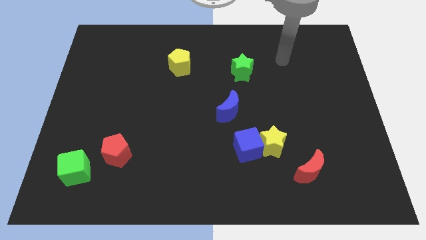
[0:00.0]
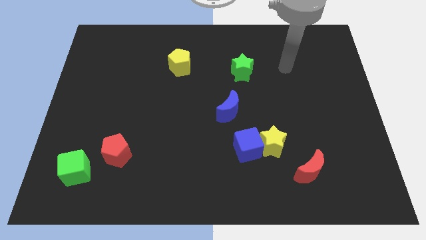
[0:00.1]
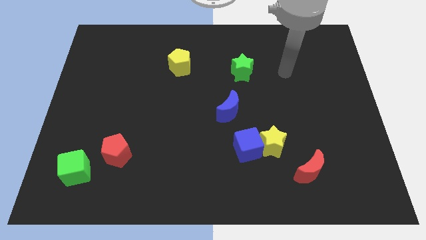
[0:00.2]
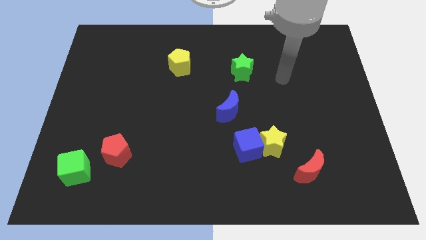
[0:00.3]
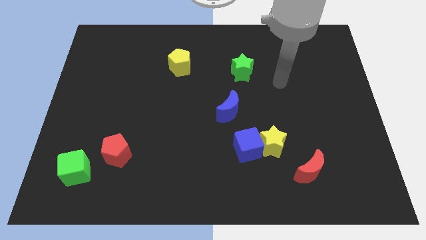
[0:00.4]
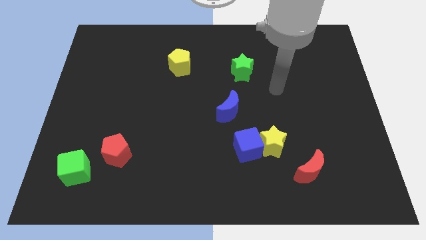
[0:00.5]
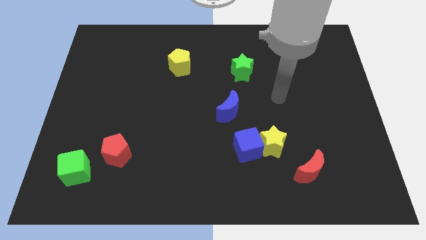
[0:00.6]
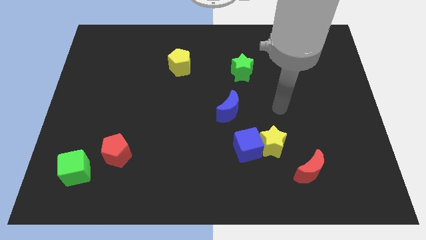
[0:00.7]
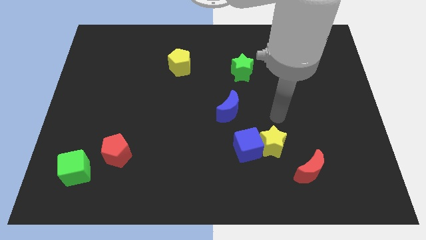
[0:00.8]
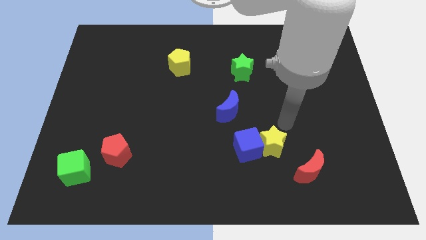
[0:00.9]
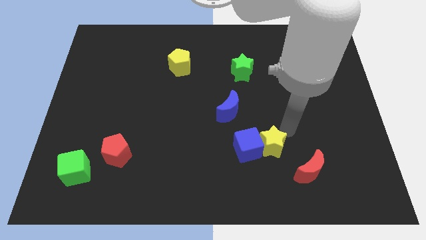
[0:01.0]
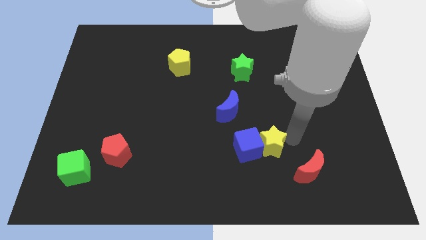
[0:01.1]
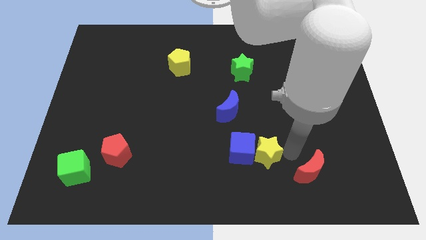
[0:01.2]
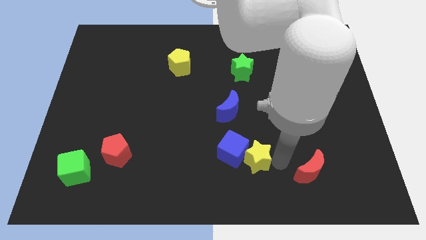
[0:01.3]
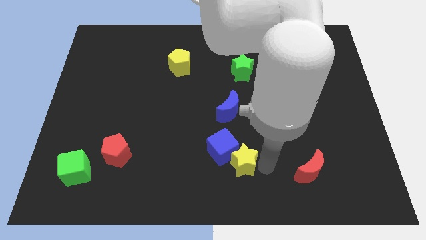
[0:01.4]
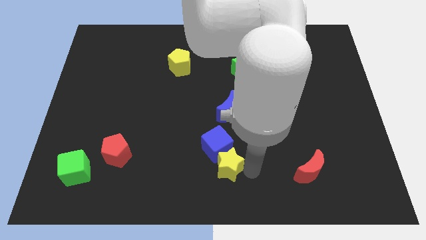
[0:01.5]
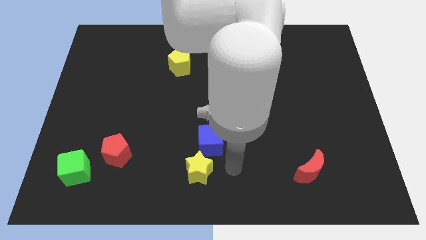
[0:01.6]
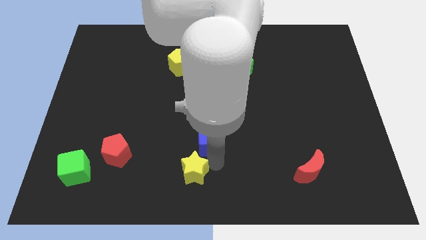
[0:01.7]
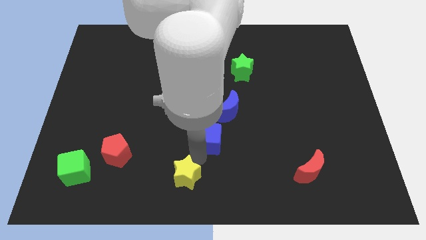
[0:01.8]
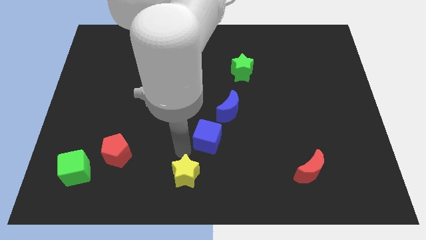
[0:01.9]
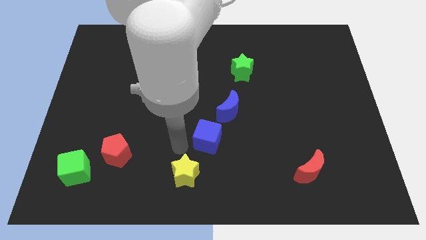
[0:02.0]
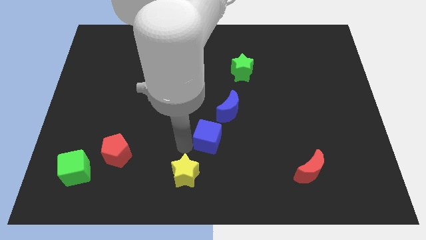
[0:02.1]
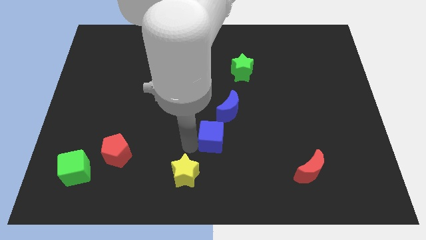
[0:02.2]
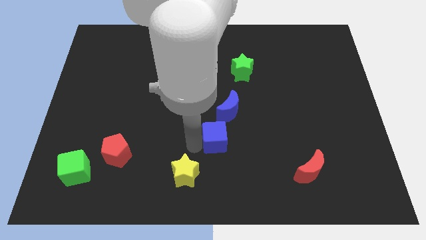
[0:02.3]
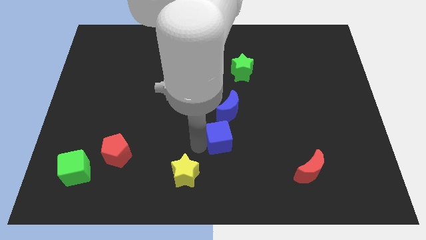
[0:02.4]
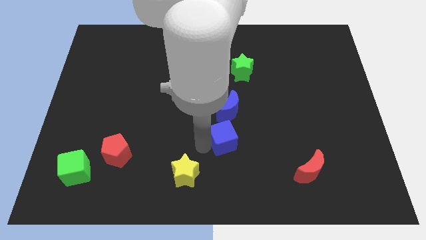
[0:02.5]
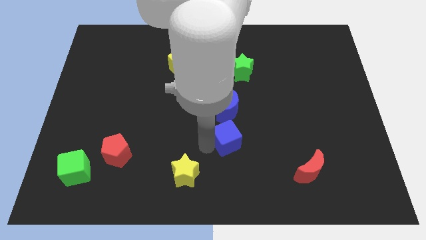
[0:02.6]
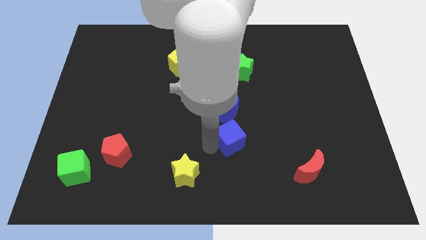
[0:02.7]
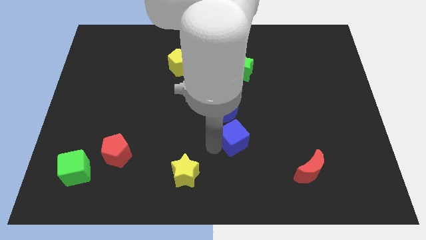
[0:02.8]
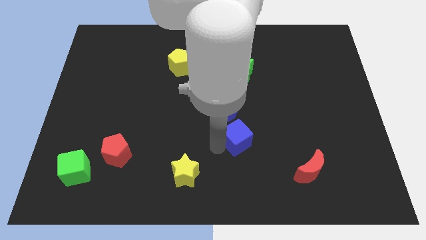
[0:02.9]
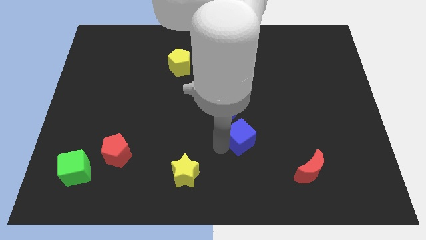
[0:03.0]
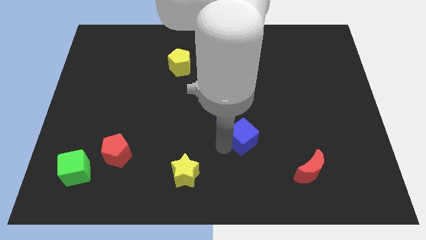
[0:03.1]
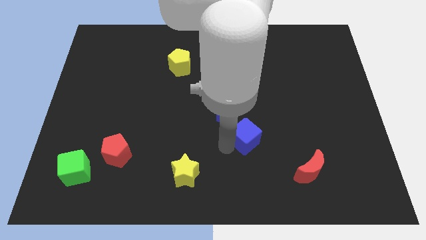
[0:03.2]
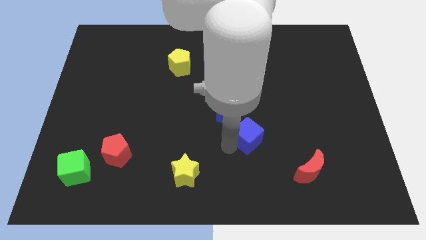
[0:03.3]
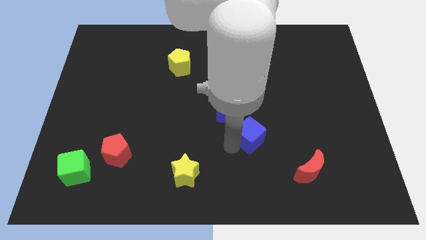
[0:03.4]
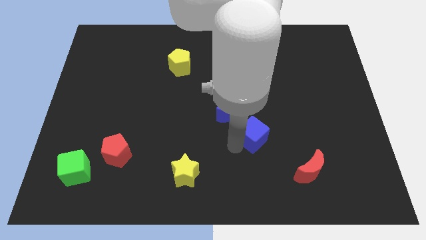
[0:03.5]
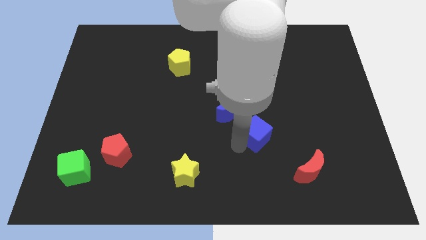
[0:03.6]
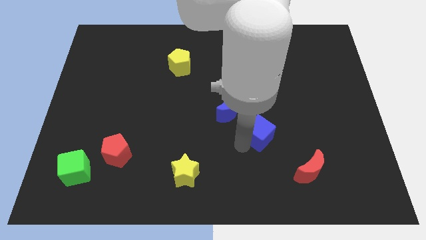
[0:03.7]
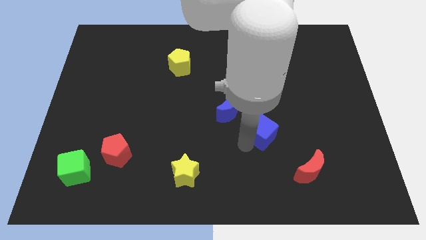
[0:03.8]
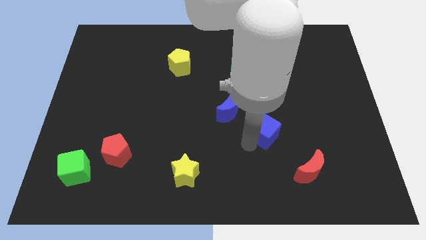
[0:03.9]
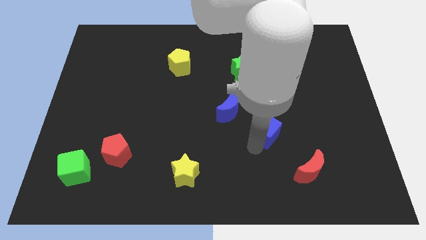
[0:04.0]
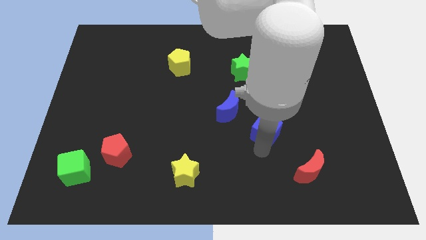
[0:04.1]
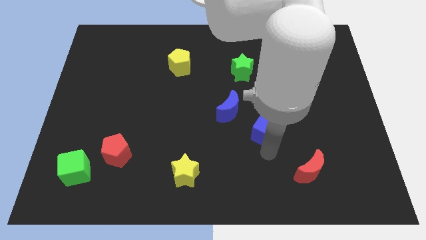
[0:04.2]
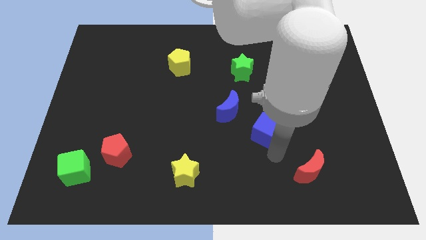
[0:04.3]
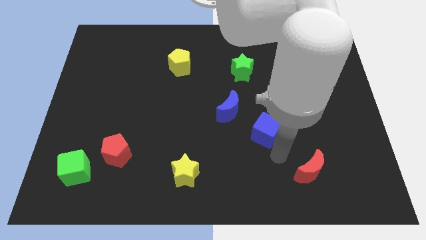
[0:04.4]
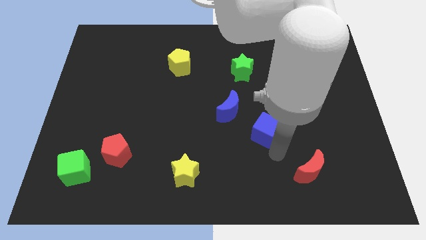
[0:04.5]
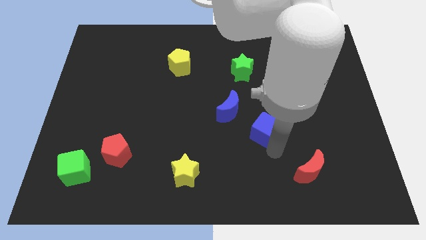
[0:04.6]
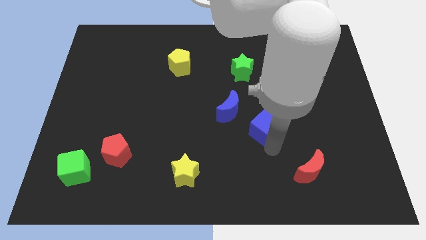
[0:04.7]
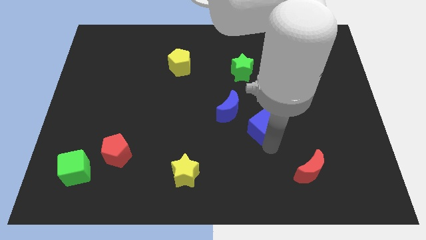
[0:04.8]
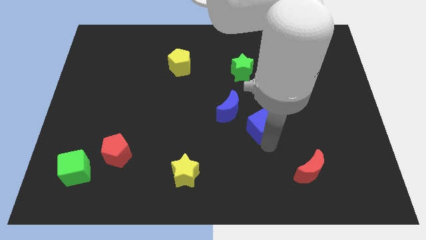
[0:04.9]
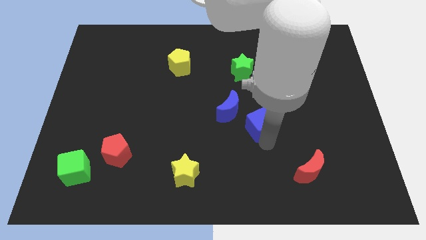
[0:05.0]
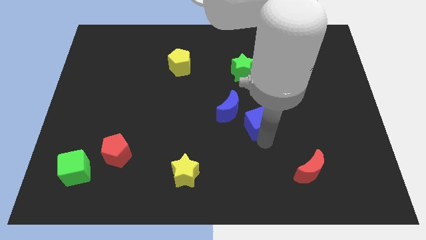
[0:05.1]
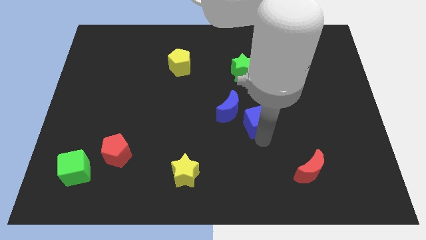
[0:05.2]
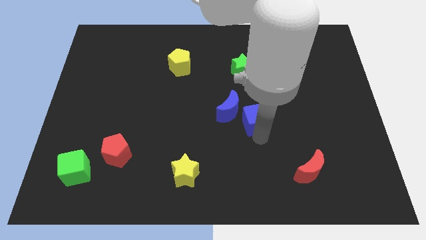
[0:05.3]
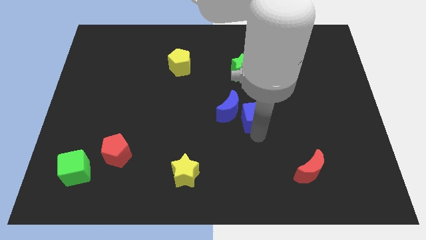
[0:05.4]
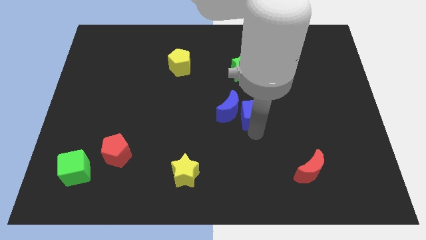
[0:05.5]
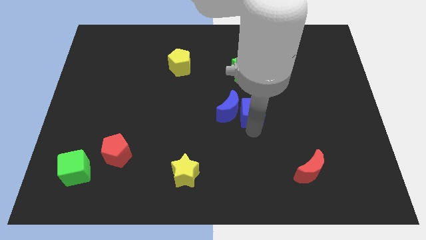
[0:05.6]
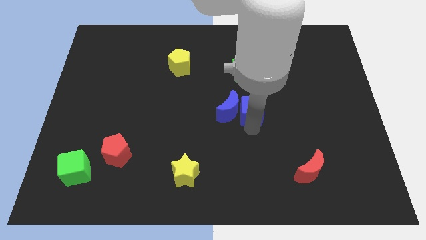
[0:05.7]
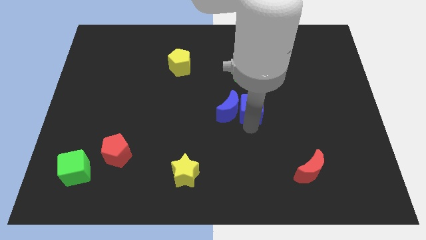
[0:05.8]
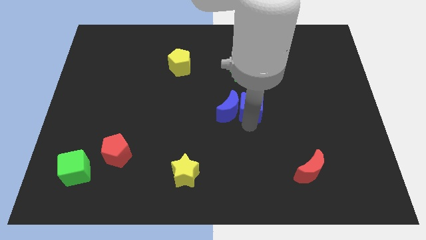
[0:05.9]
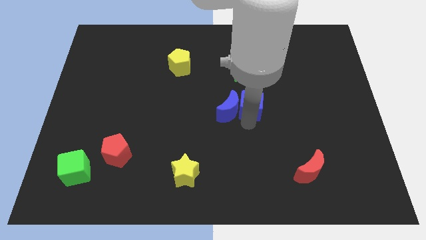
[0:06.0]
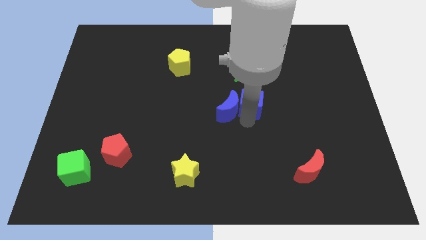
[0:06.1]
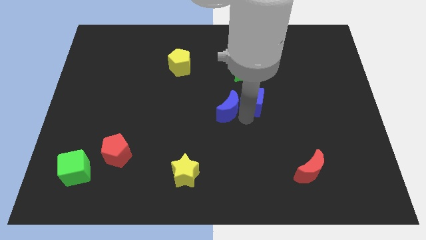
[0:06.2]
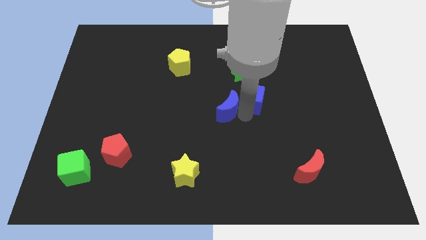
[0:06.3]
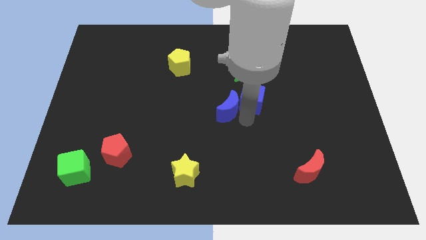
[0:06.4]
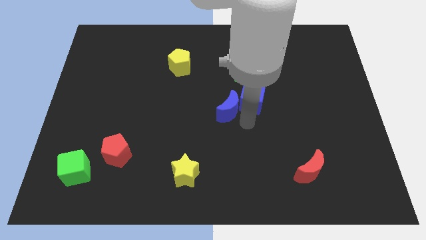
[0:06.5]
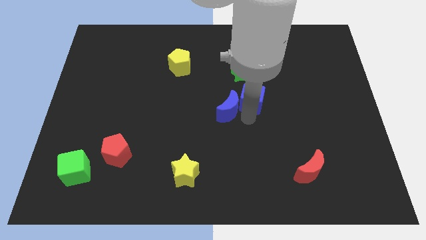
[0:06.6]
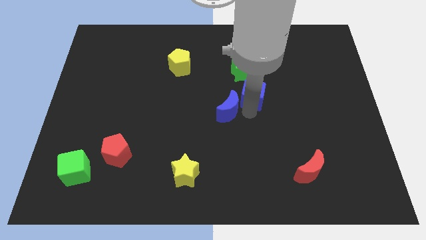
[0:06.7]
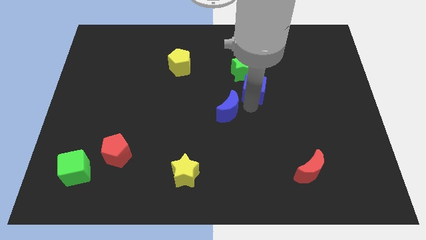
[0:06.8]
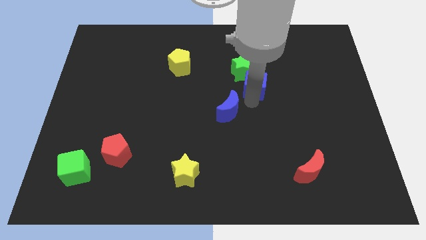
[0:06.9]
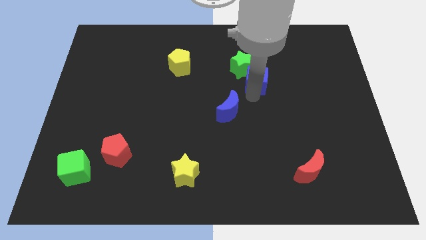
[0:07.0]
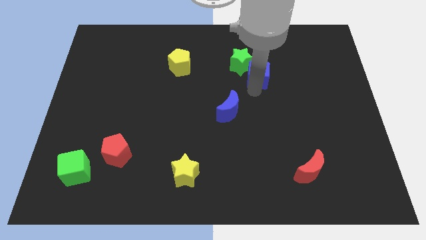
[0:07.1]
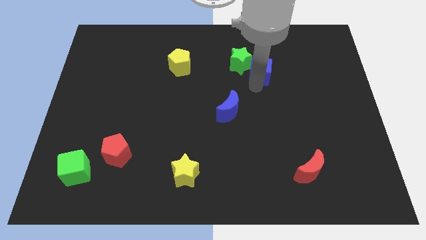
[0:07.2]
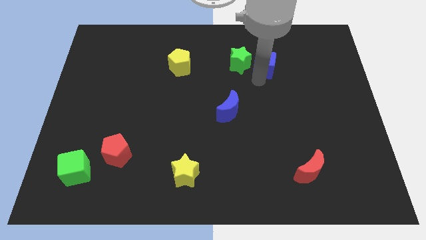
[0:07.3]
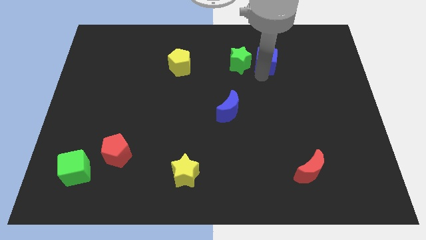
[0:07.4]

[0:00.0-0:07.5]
put the blue cube to the top right of the green star
